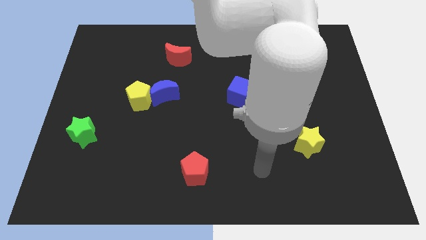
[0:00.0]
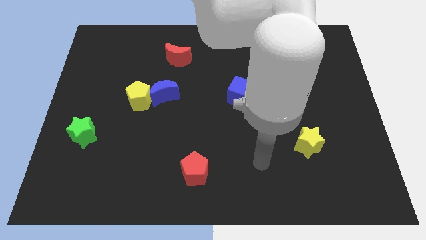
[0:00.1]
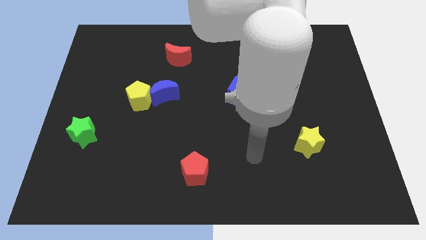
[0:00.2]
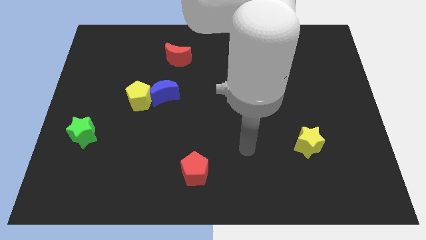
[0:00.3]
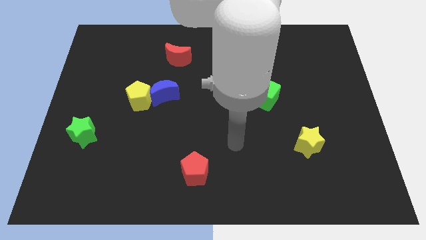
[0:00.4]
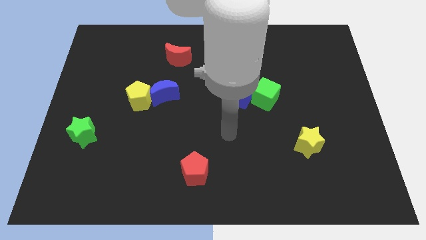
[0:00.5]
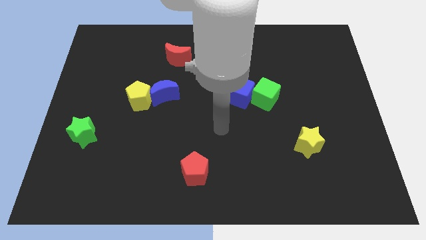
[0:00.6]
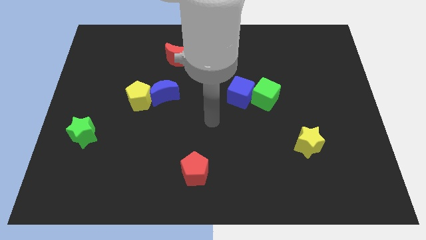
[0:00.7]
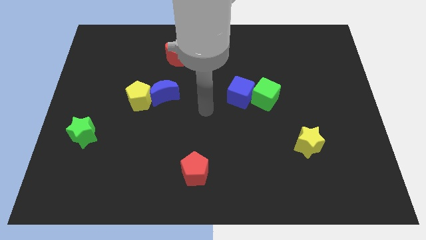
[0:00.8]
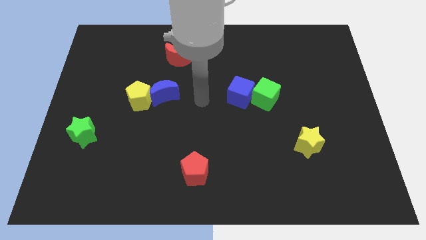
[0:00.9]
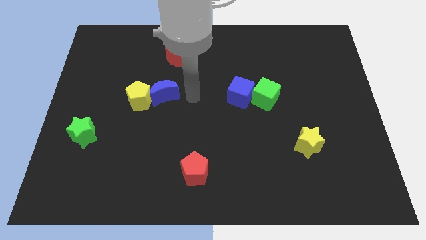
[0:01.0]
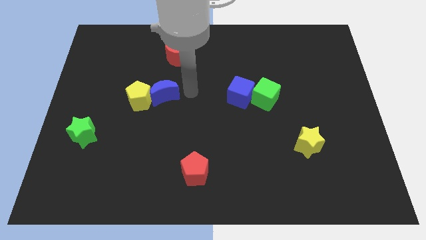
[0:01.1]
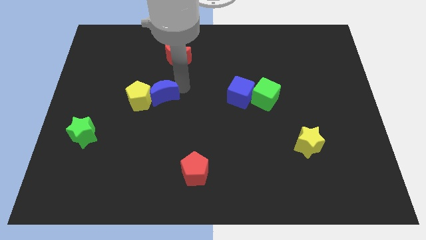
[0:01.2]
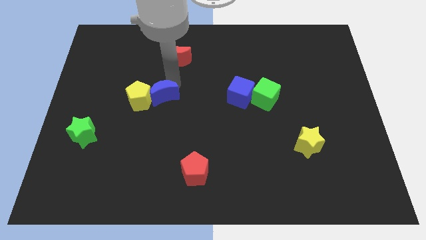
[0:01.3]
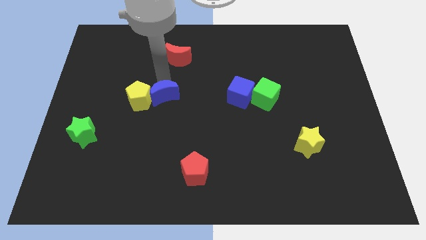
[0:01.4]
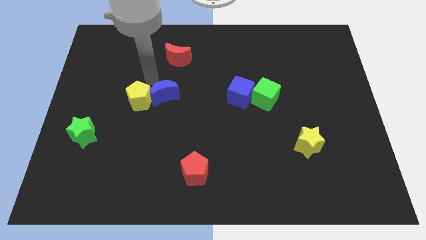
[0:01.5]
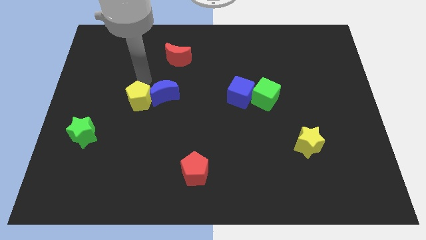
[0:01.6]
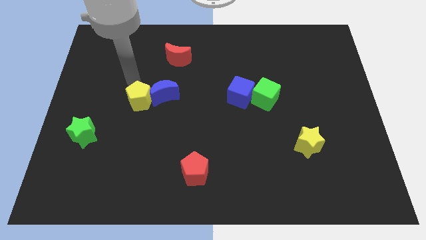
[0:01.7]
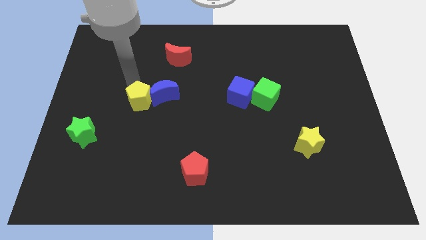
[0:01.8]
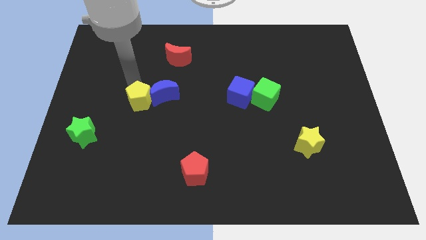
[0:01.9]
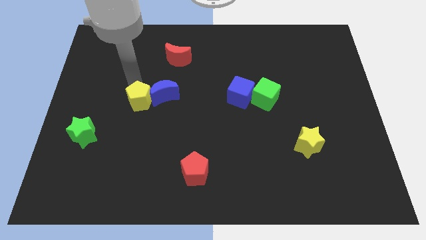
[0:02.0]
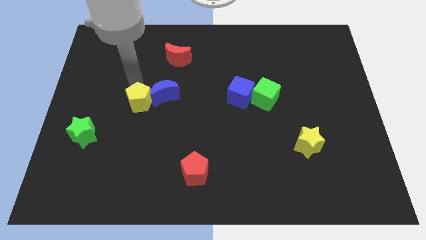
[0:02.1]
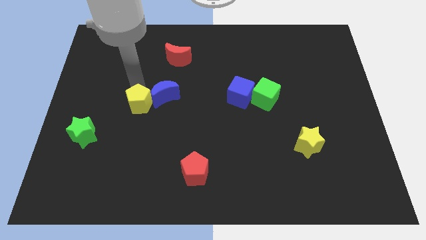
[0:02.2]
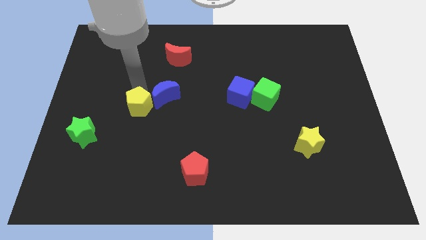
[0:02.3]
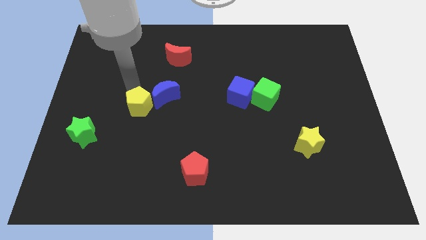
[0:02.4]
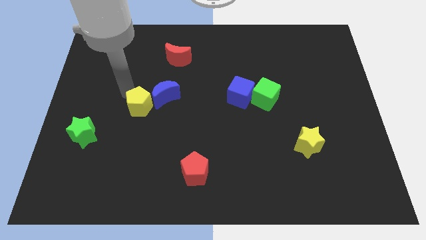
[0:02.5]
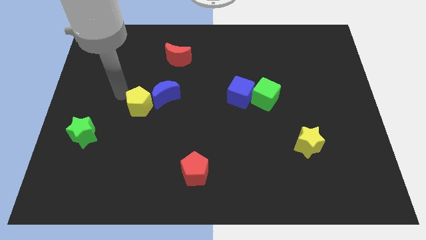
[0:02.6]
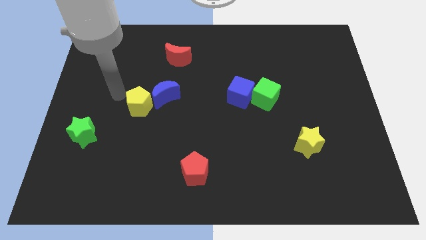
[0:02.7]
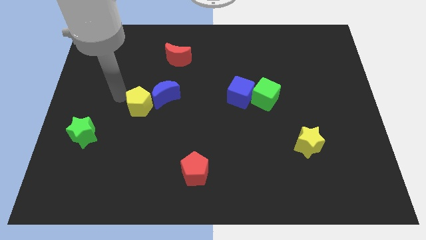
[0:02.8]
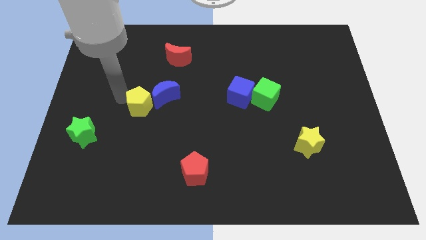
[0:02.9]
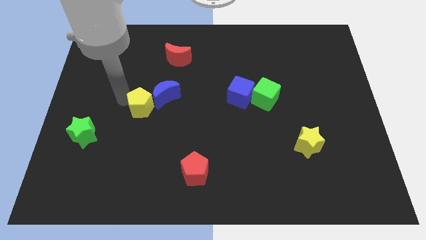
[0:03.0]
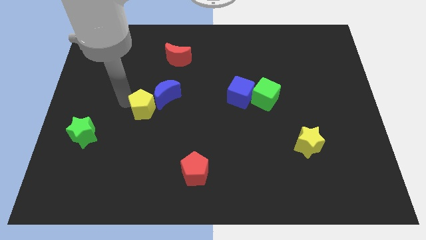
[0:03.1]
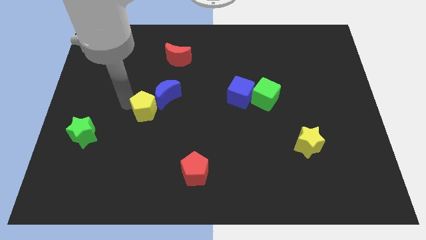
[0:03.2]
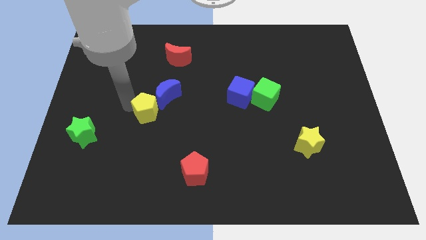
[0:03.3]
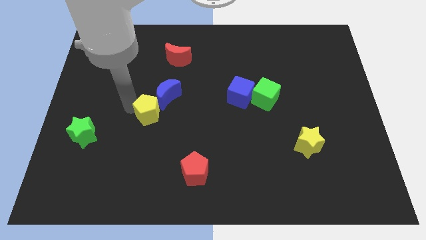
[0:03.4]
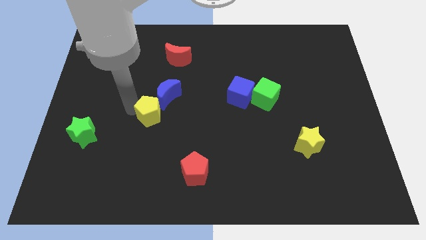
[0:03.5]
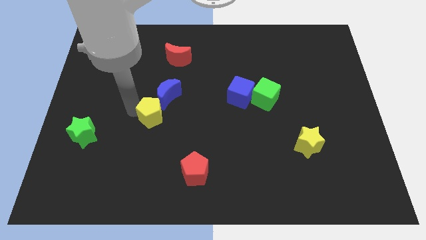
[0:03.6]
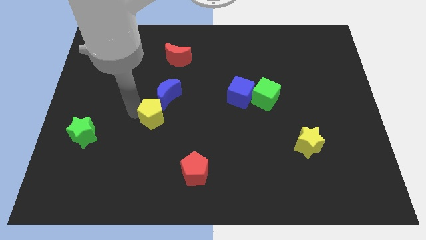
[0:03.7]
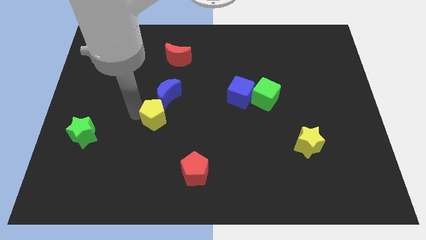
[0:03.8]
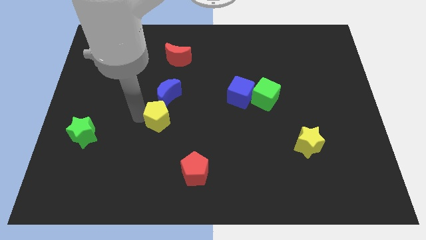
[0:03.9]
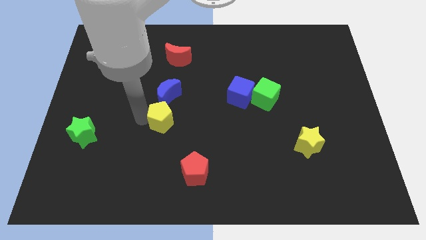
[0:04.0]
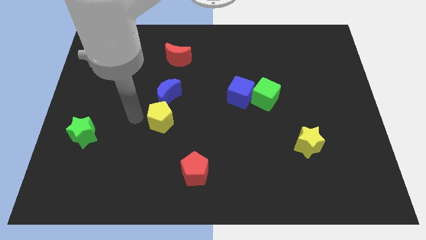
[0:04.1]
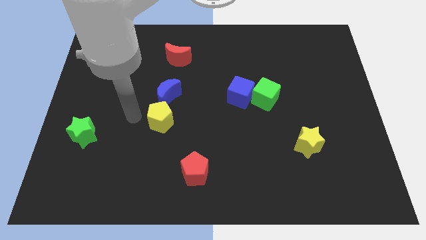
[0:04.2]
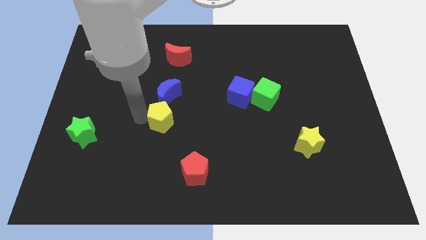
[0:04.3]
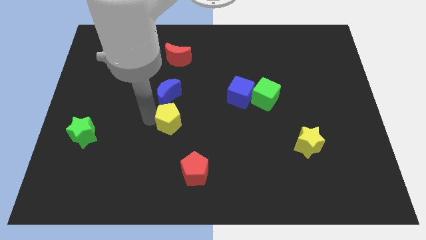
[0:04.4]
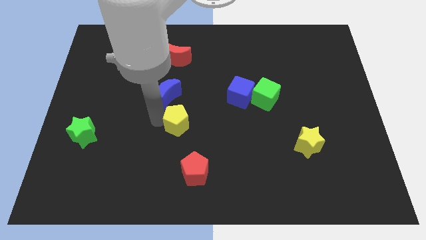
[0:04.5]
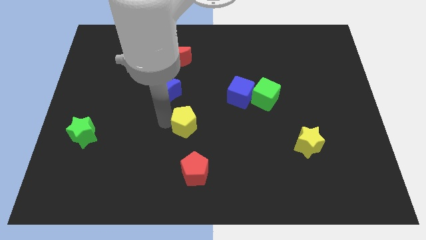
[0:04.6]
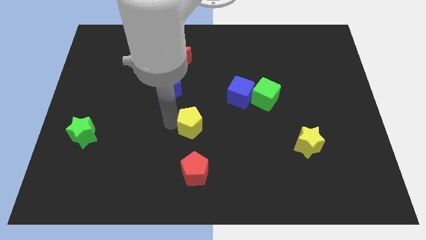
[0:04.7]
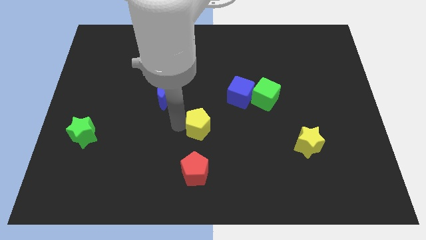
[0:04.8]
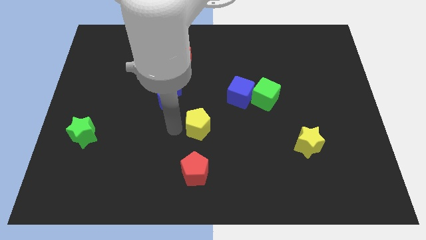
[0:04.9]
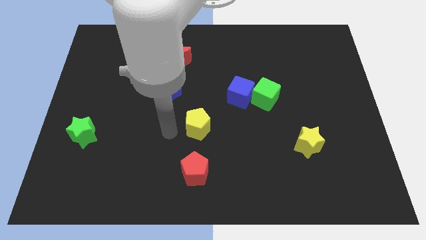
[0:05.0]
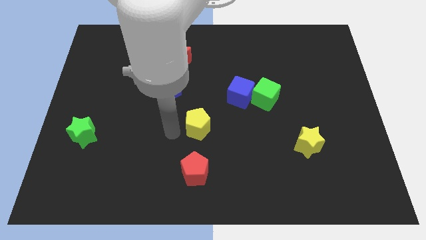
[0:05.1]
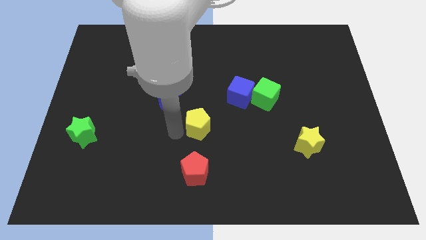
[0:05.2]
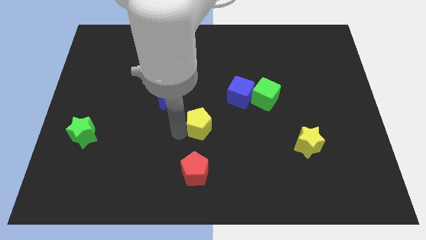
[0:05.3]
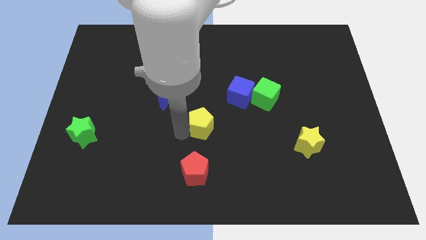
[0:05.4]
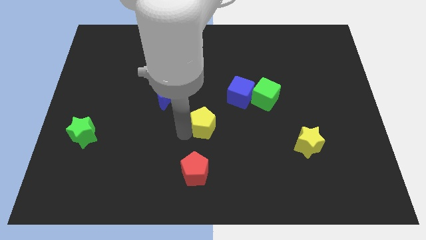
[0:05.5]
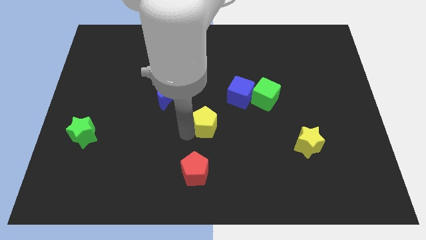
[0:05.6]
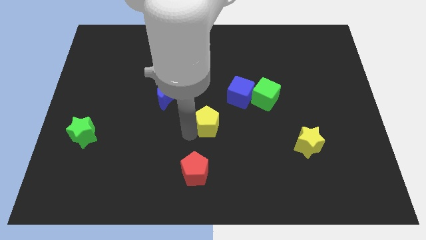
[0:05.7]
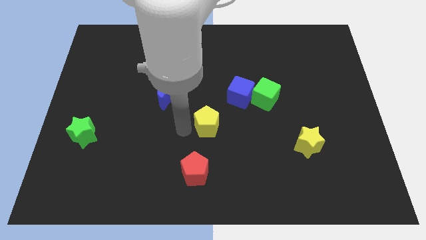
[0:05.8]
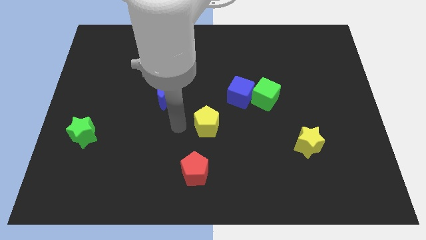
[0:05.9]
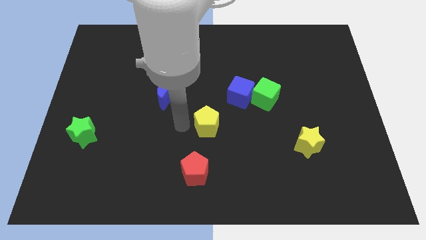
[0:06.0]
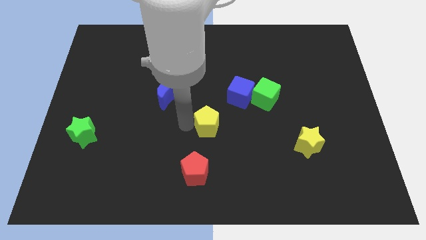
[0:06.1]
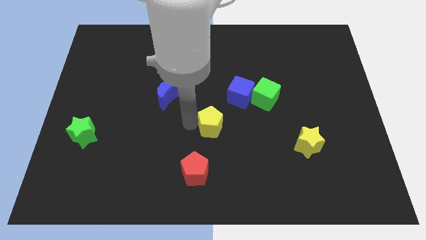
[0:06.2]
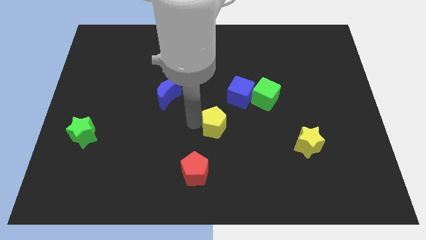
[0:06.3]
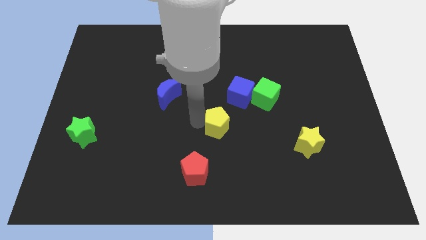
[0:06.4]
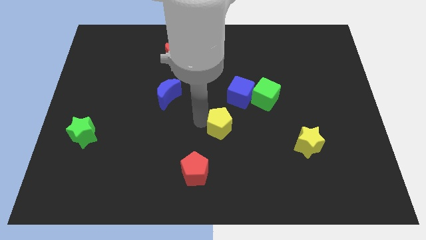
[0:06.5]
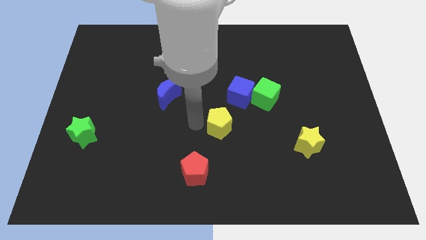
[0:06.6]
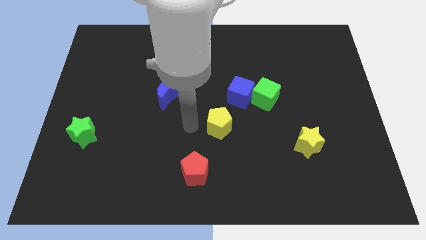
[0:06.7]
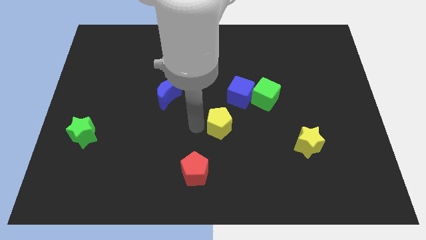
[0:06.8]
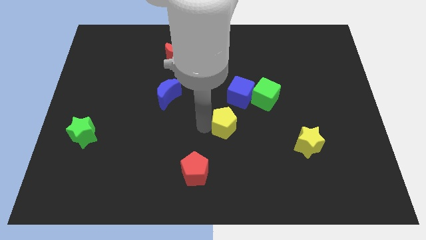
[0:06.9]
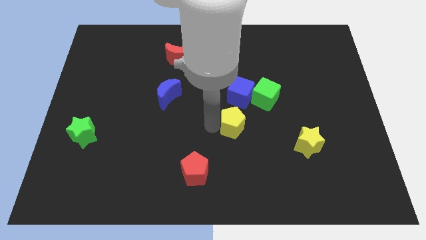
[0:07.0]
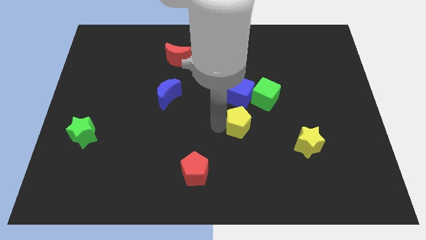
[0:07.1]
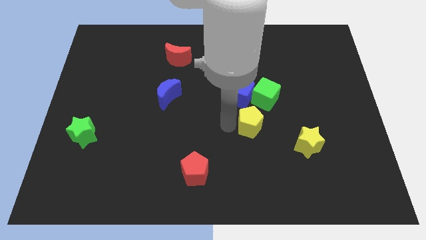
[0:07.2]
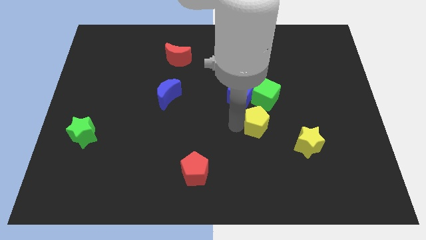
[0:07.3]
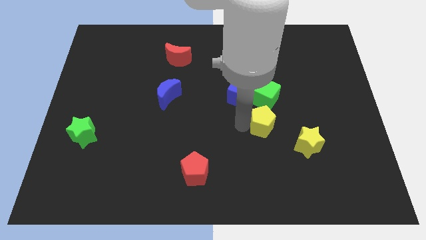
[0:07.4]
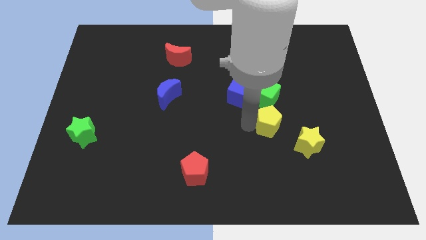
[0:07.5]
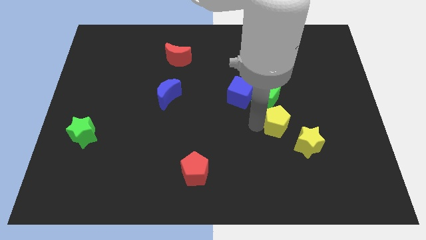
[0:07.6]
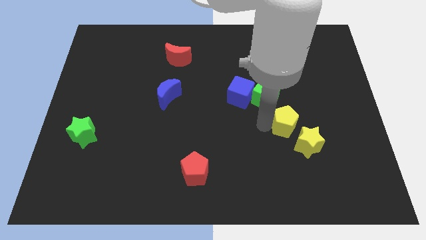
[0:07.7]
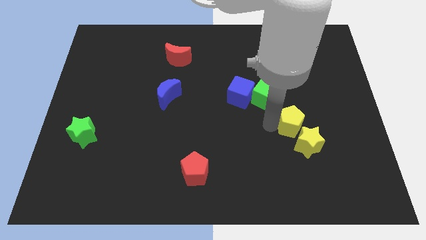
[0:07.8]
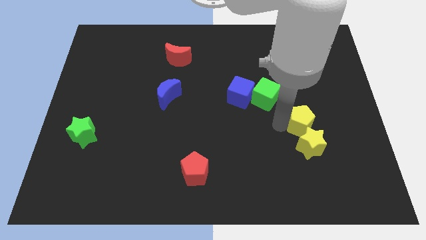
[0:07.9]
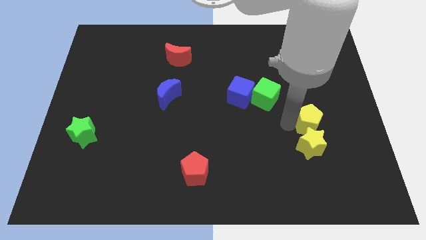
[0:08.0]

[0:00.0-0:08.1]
move the yellow pentagon to the top right of the yellow star
